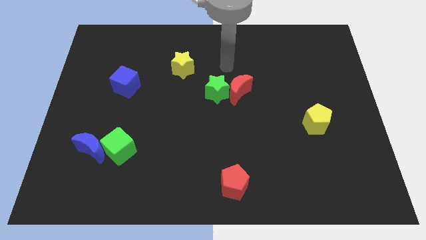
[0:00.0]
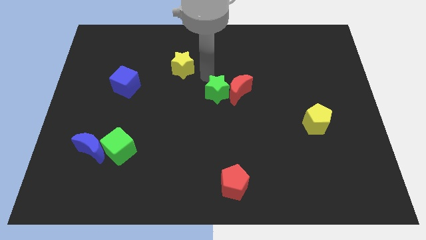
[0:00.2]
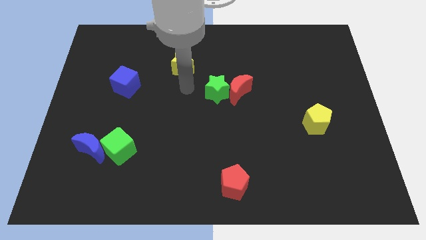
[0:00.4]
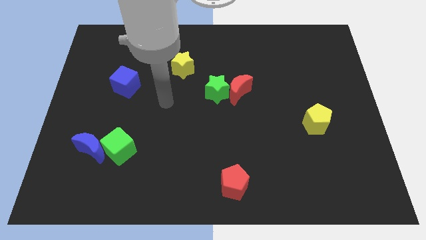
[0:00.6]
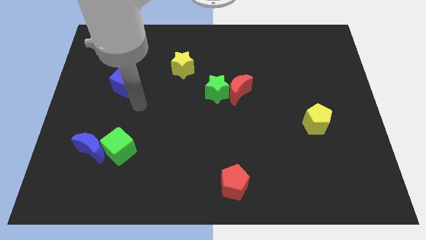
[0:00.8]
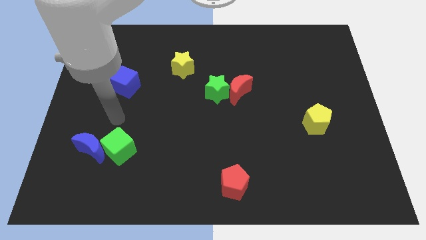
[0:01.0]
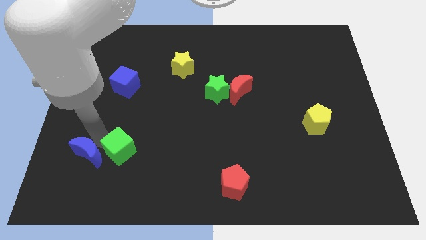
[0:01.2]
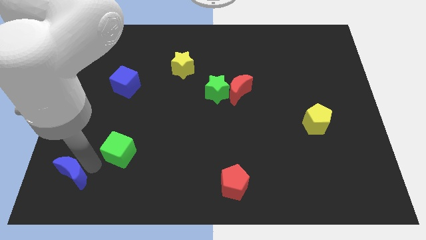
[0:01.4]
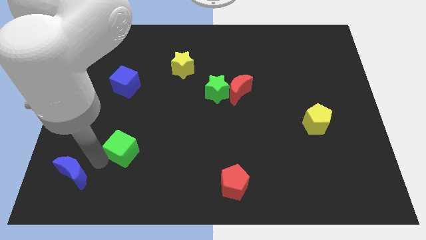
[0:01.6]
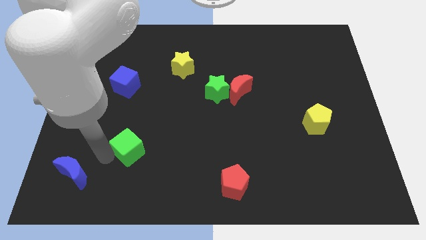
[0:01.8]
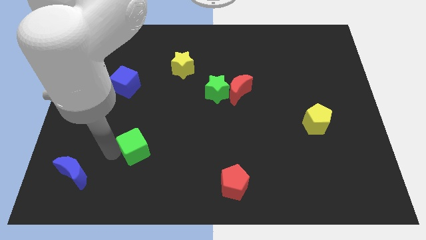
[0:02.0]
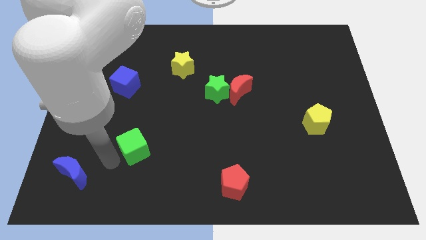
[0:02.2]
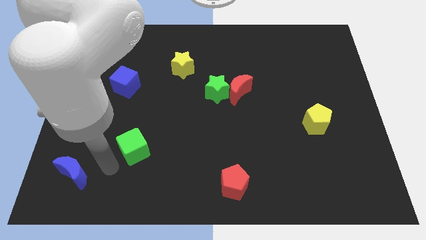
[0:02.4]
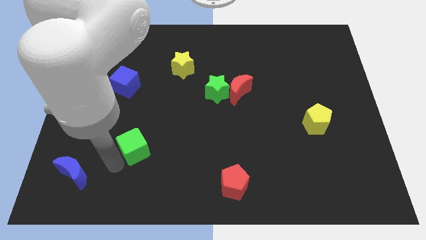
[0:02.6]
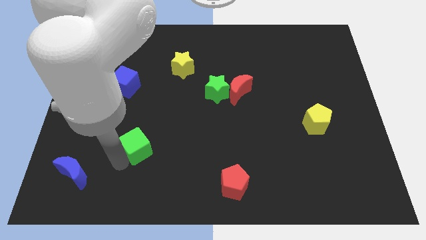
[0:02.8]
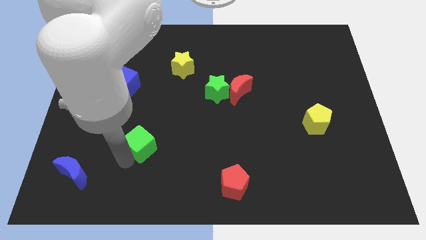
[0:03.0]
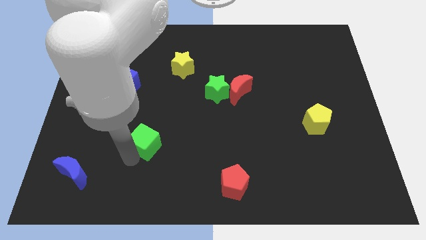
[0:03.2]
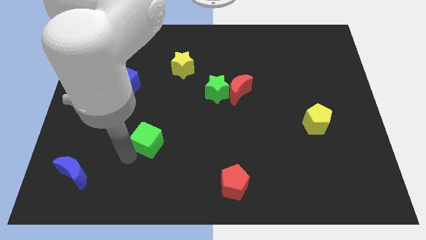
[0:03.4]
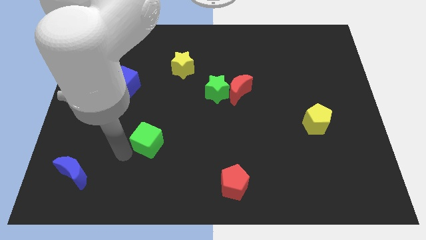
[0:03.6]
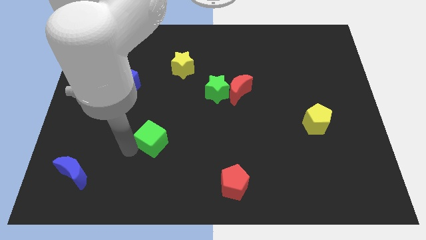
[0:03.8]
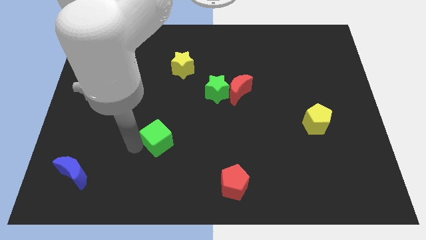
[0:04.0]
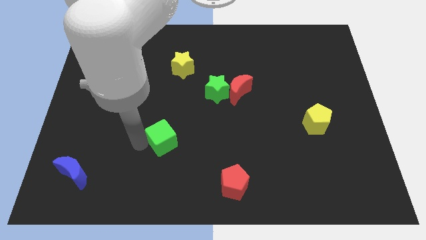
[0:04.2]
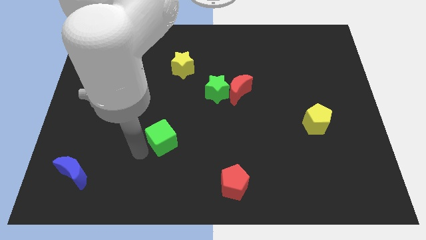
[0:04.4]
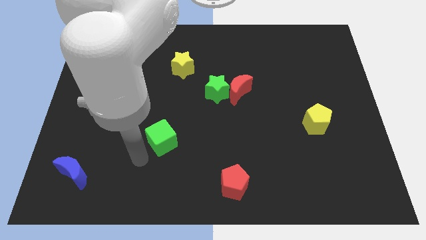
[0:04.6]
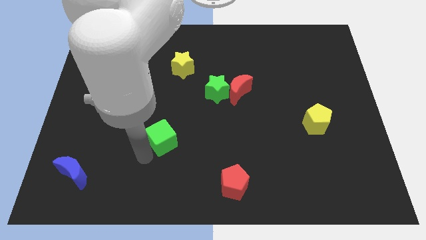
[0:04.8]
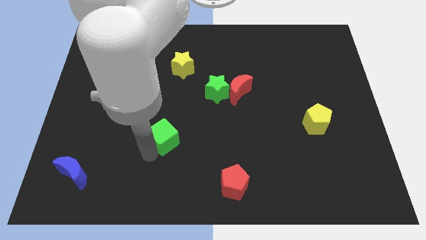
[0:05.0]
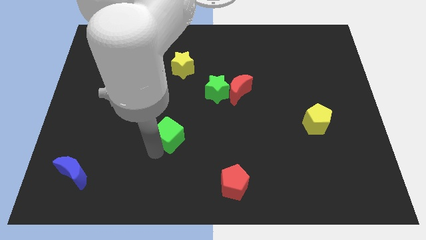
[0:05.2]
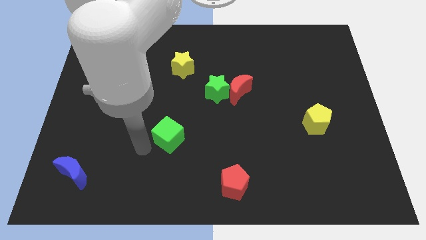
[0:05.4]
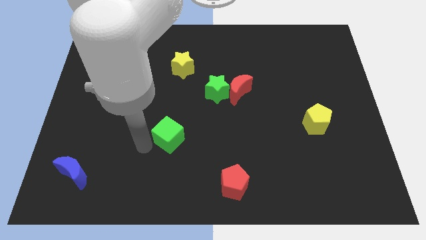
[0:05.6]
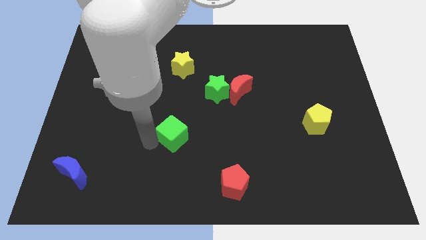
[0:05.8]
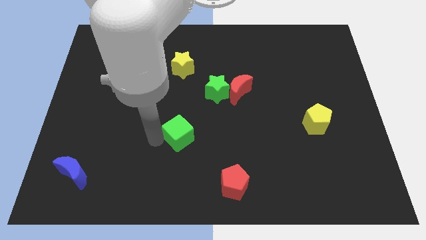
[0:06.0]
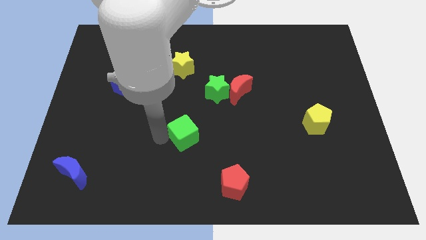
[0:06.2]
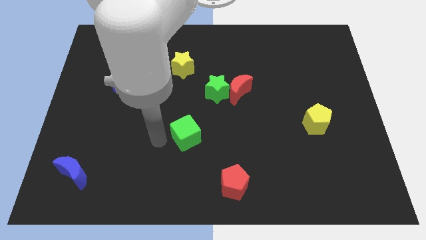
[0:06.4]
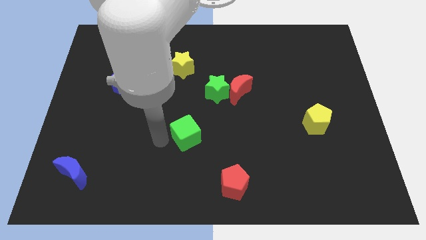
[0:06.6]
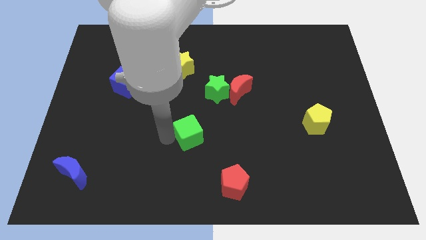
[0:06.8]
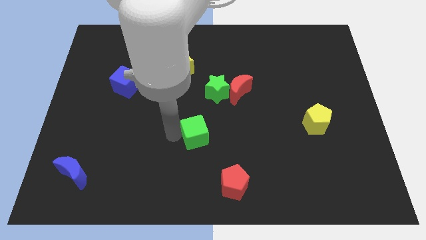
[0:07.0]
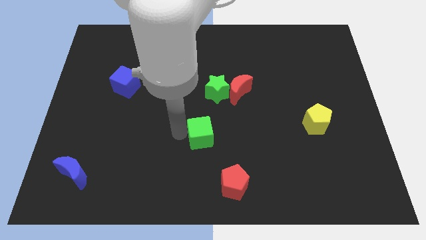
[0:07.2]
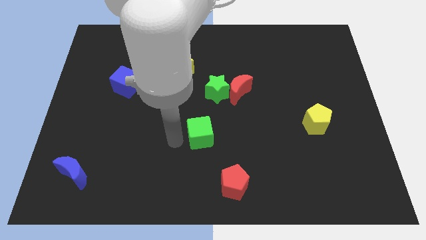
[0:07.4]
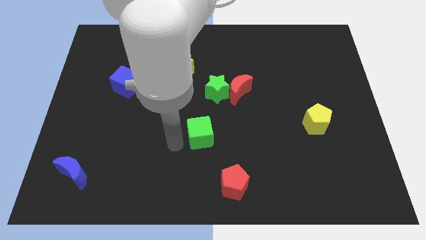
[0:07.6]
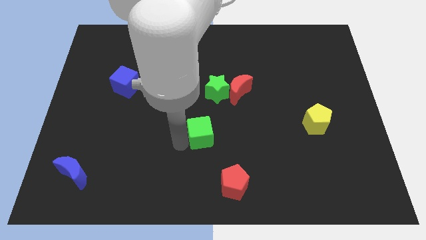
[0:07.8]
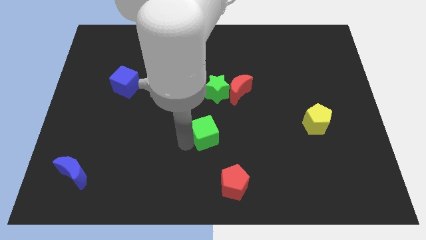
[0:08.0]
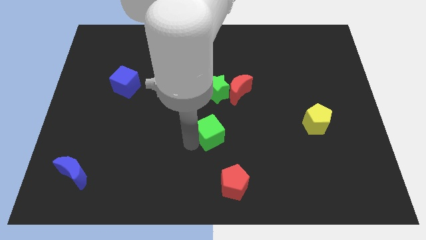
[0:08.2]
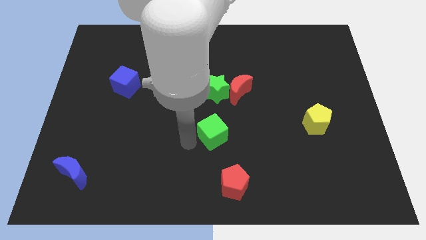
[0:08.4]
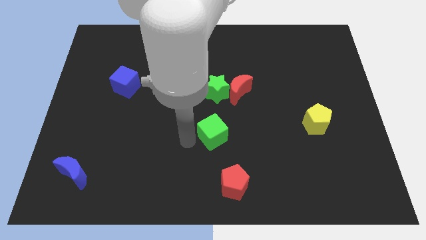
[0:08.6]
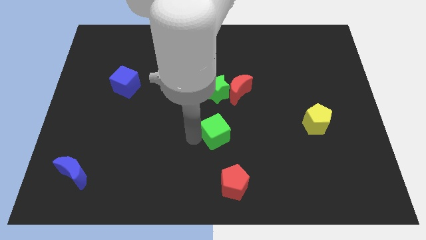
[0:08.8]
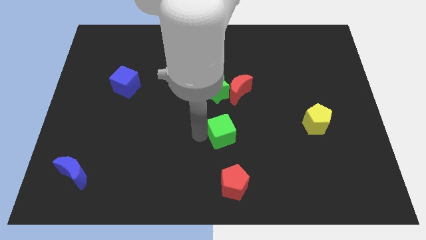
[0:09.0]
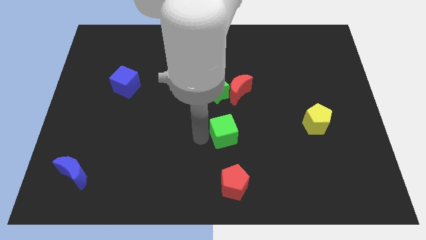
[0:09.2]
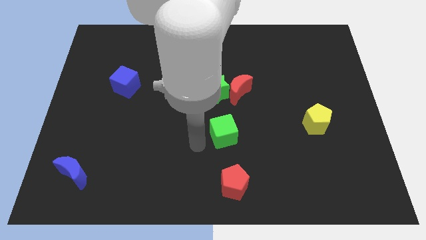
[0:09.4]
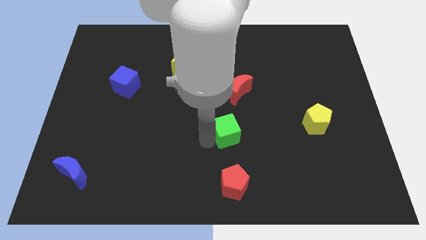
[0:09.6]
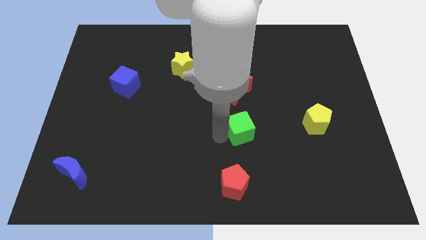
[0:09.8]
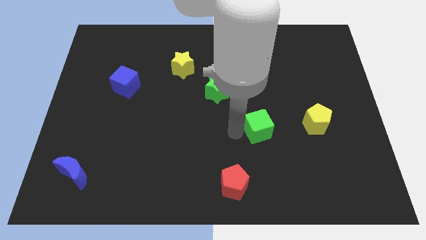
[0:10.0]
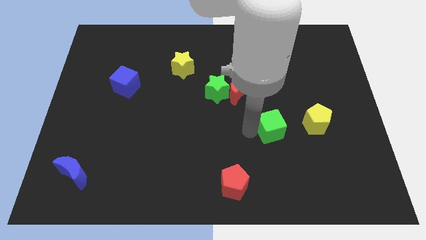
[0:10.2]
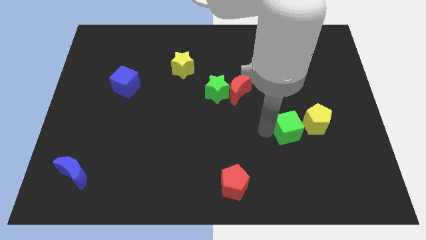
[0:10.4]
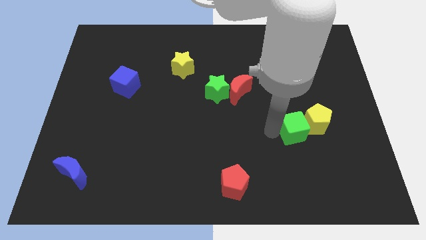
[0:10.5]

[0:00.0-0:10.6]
move the green cube towards the yellow pentagon

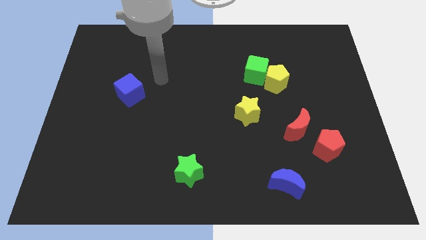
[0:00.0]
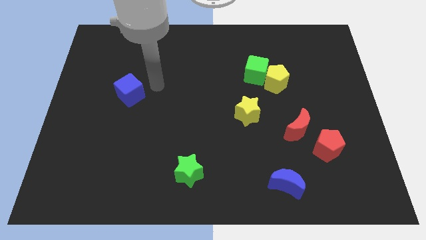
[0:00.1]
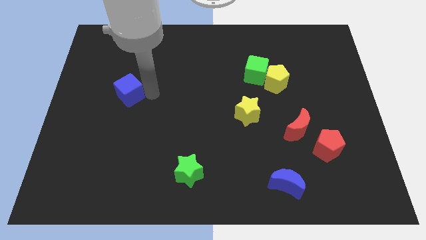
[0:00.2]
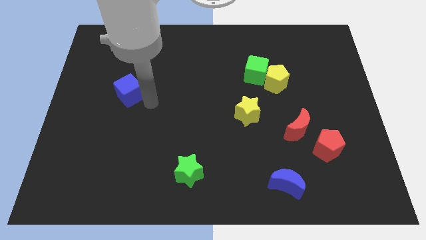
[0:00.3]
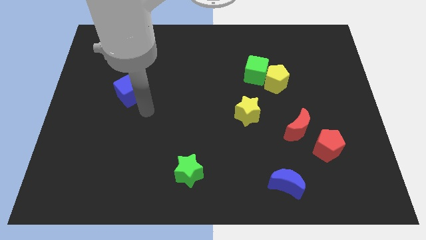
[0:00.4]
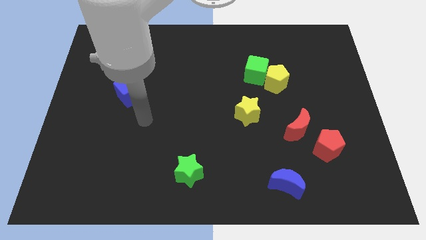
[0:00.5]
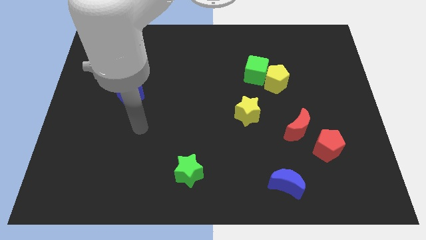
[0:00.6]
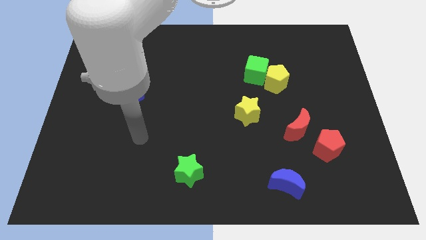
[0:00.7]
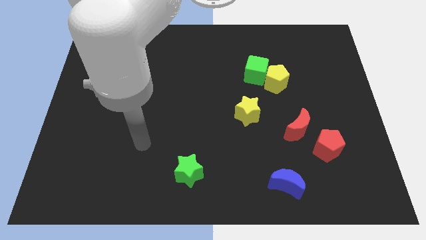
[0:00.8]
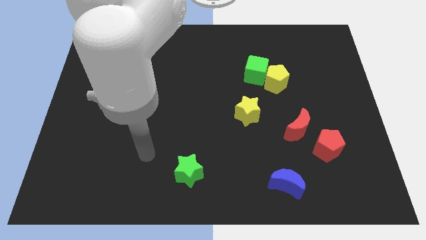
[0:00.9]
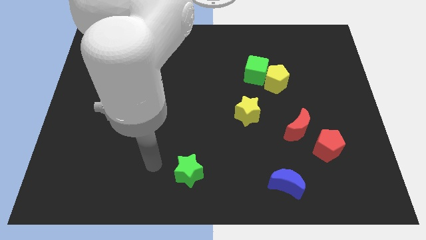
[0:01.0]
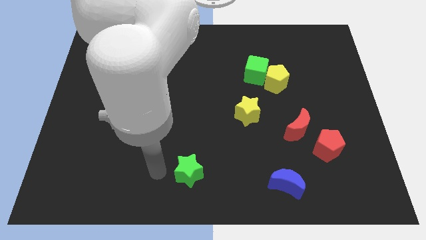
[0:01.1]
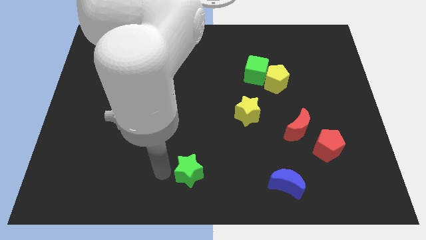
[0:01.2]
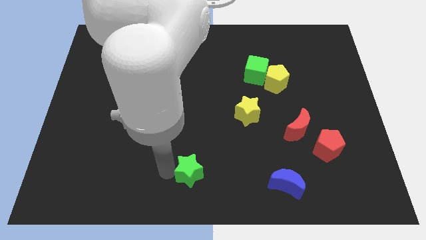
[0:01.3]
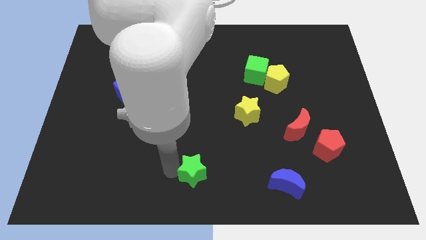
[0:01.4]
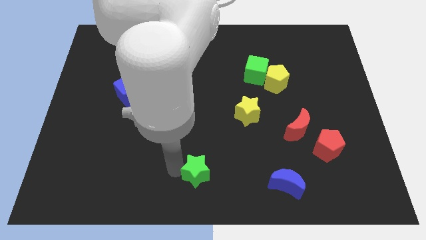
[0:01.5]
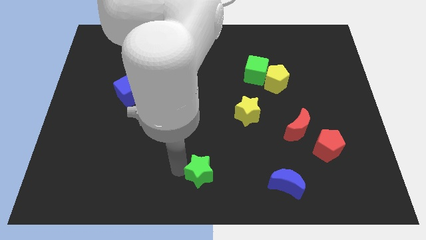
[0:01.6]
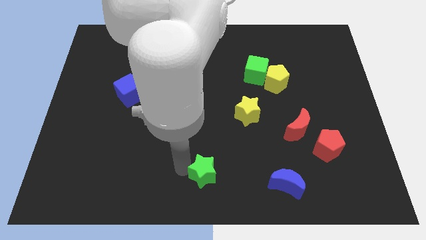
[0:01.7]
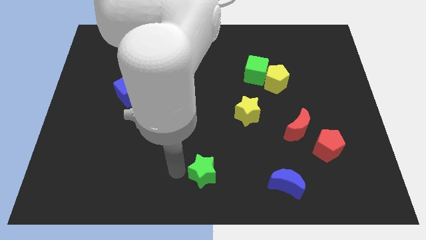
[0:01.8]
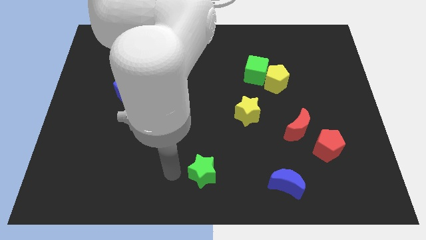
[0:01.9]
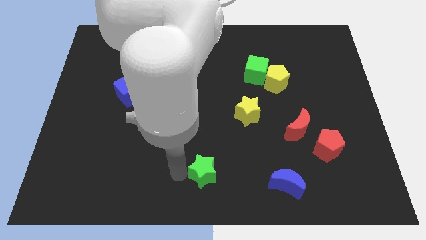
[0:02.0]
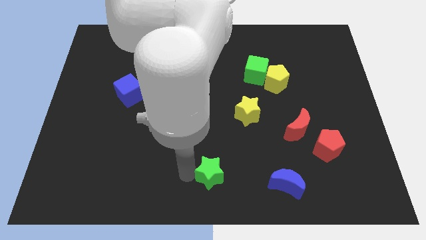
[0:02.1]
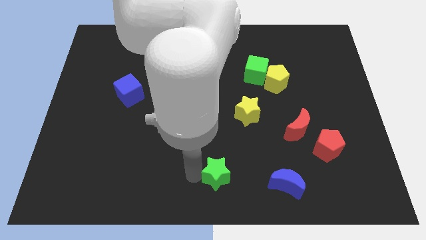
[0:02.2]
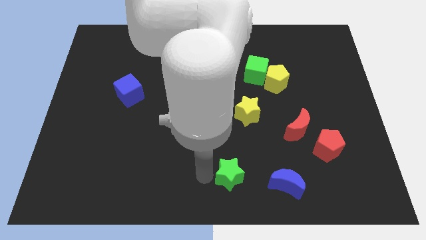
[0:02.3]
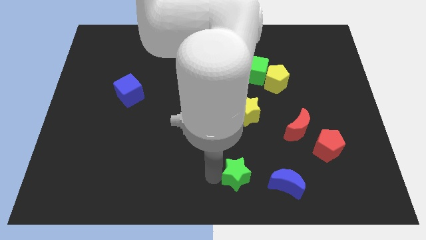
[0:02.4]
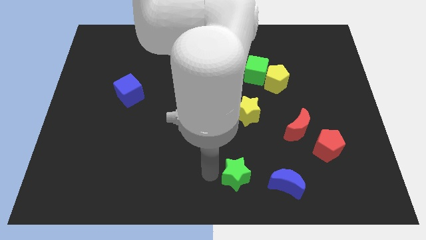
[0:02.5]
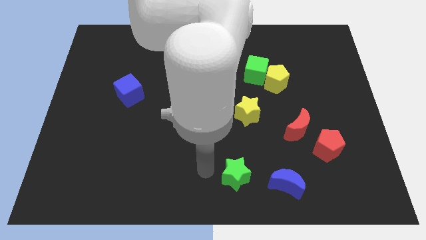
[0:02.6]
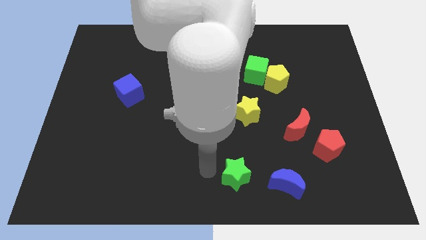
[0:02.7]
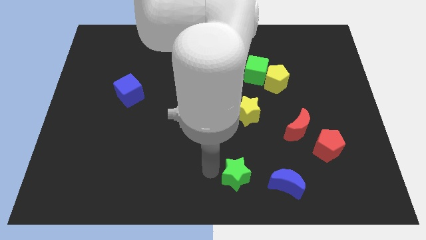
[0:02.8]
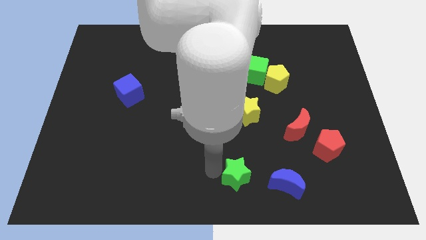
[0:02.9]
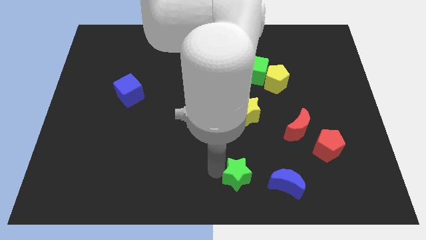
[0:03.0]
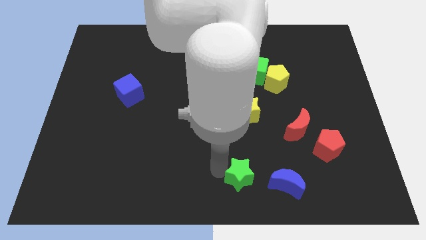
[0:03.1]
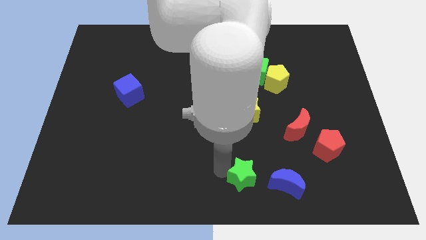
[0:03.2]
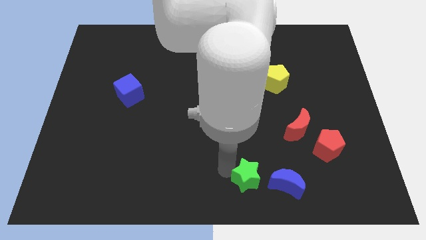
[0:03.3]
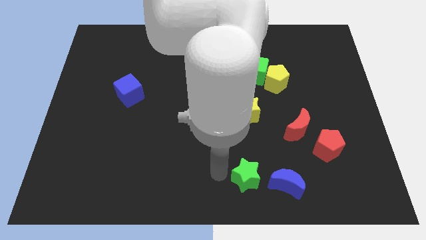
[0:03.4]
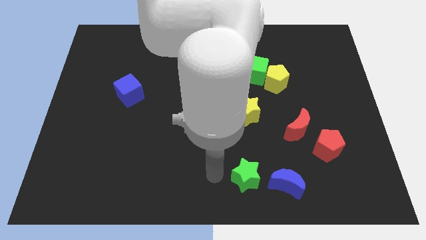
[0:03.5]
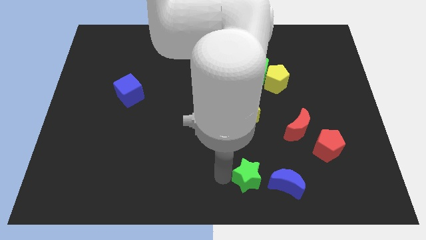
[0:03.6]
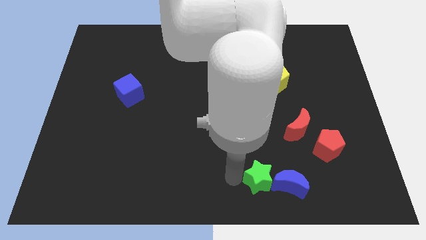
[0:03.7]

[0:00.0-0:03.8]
move the green star next to the blue moon
